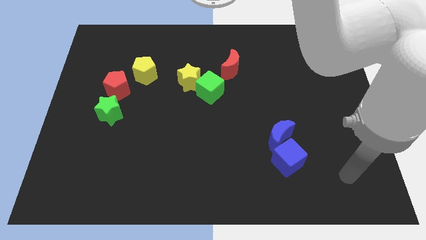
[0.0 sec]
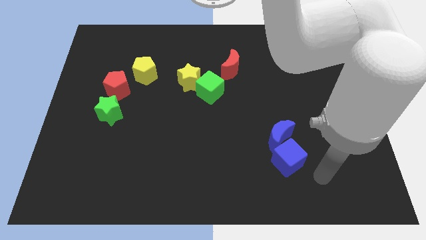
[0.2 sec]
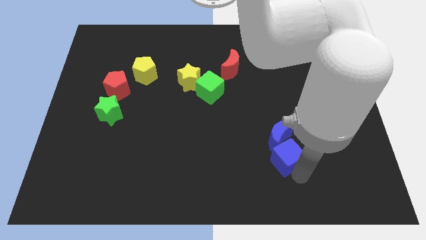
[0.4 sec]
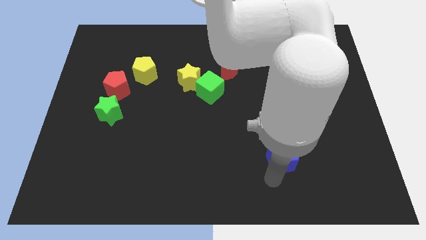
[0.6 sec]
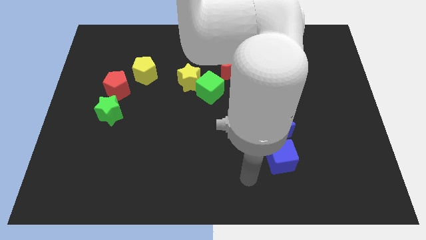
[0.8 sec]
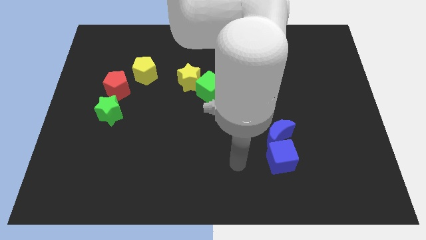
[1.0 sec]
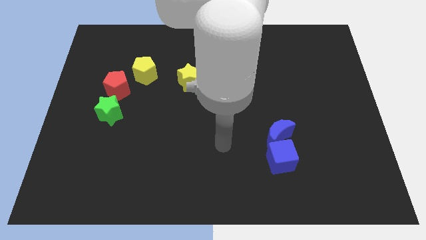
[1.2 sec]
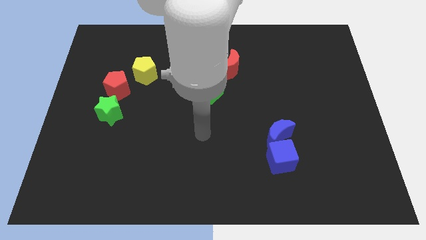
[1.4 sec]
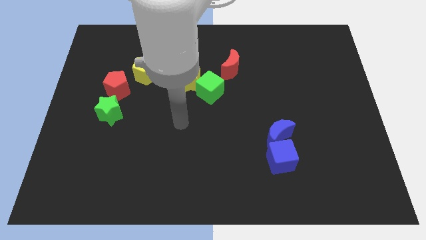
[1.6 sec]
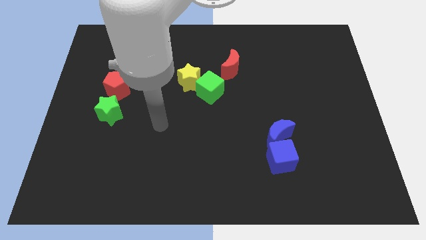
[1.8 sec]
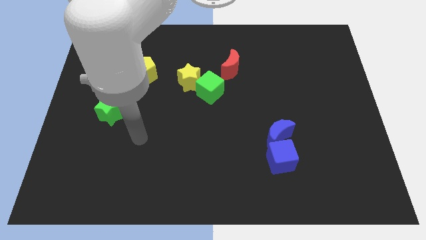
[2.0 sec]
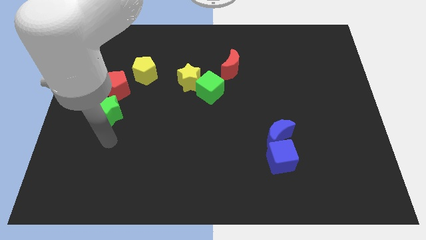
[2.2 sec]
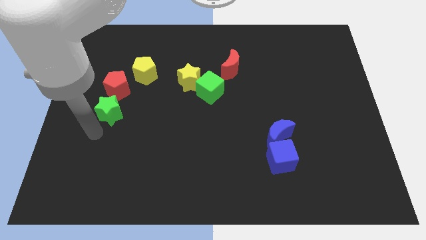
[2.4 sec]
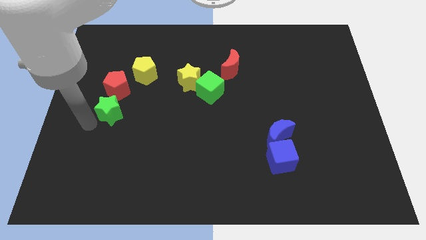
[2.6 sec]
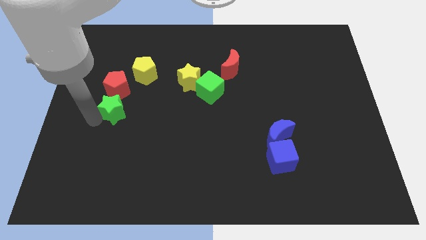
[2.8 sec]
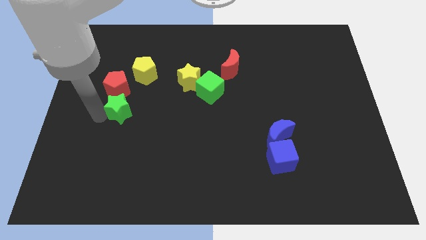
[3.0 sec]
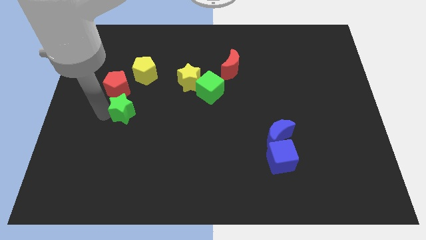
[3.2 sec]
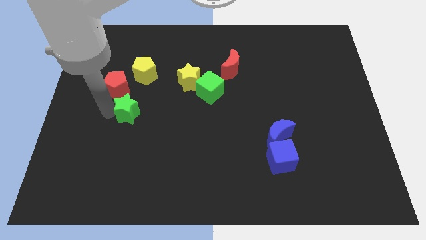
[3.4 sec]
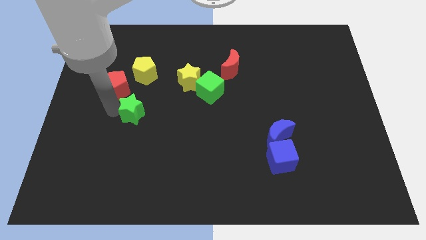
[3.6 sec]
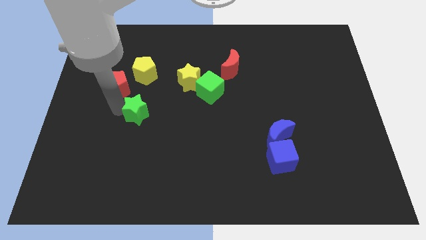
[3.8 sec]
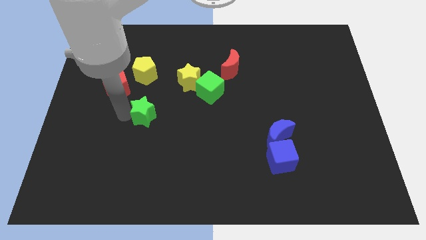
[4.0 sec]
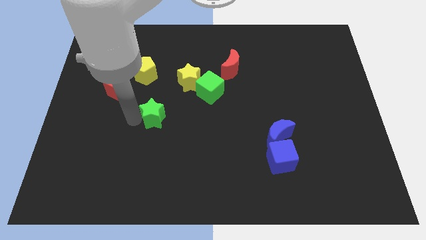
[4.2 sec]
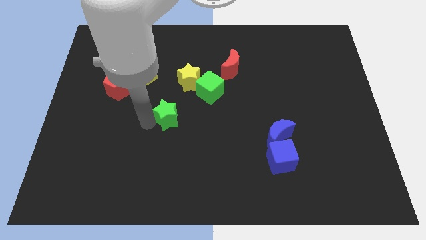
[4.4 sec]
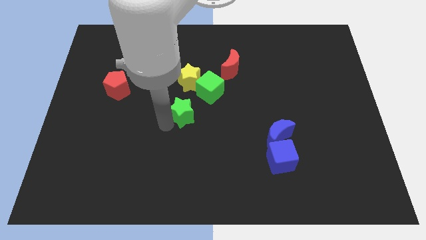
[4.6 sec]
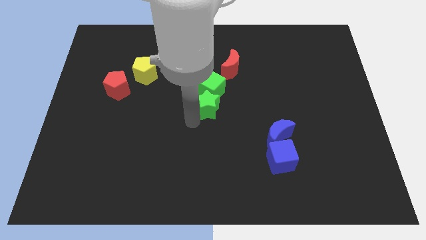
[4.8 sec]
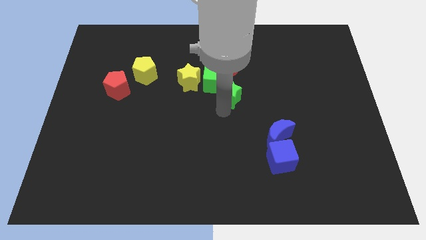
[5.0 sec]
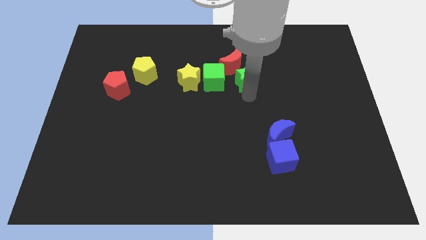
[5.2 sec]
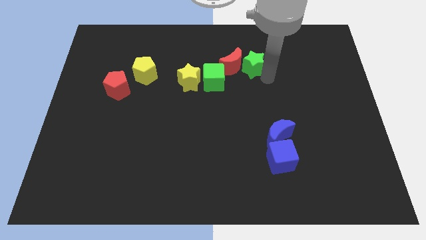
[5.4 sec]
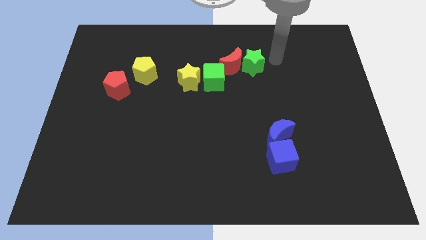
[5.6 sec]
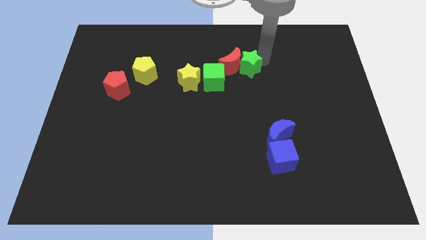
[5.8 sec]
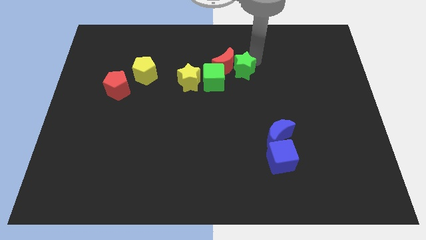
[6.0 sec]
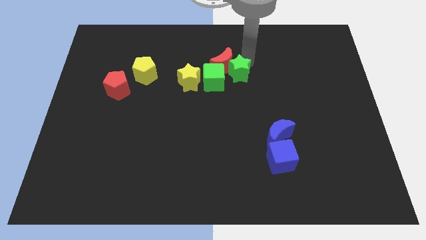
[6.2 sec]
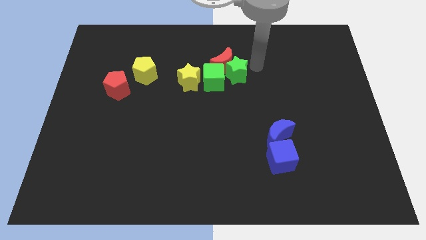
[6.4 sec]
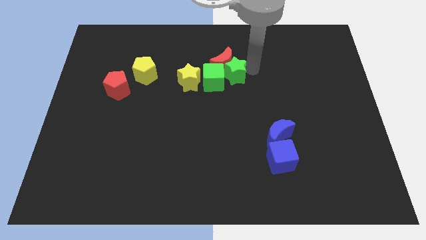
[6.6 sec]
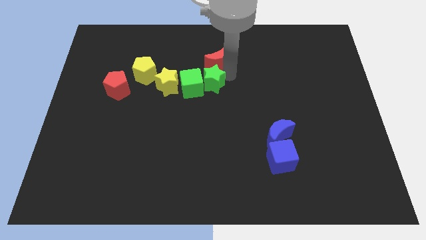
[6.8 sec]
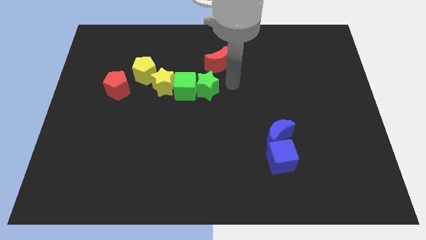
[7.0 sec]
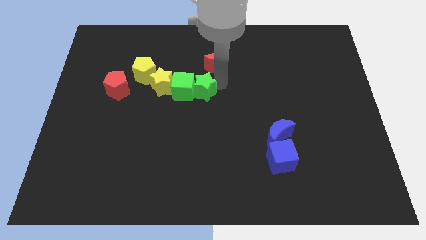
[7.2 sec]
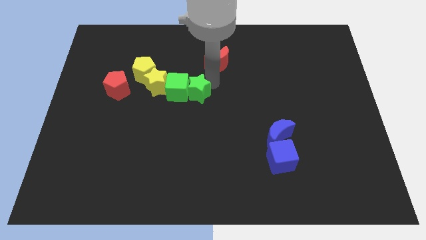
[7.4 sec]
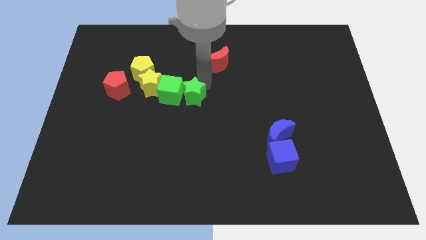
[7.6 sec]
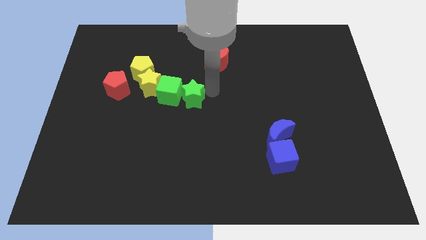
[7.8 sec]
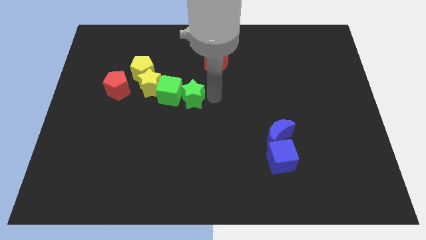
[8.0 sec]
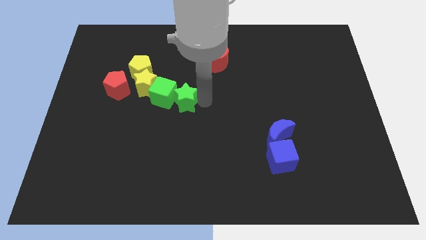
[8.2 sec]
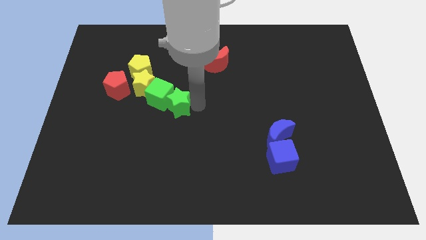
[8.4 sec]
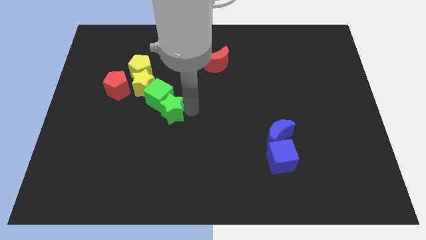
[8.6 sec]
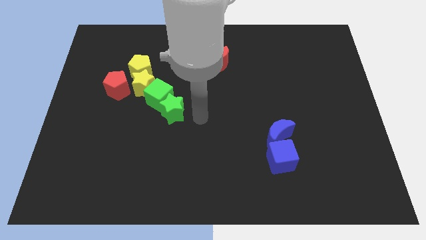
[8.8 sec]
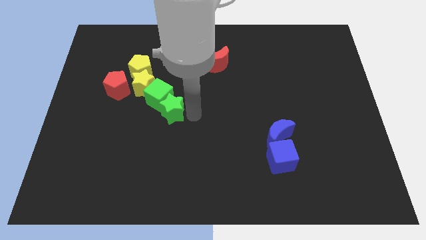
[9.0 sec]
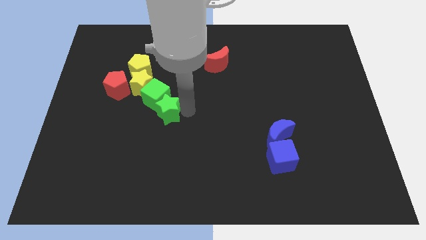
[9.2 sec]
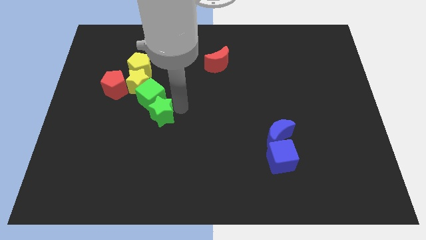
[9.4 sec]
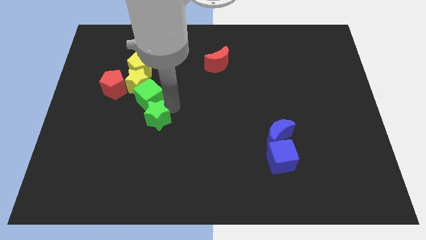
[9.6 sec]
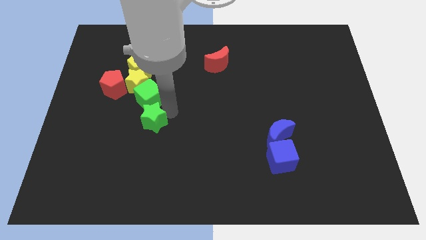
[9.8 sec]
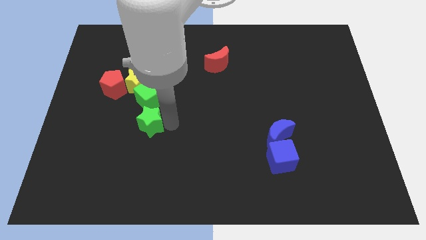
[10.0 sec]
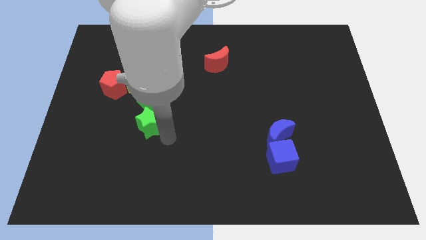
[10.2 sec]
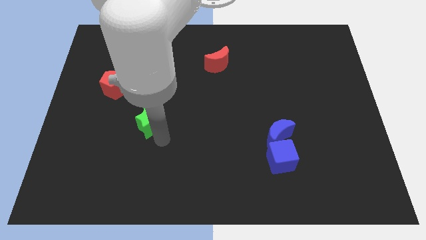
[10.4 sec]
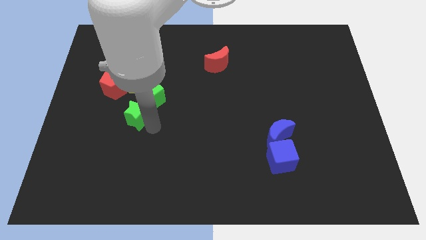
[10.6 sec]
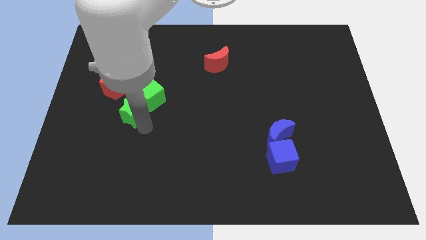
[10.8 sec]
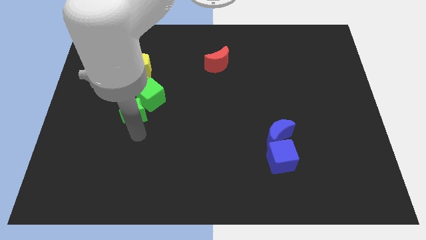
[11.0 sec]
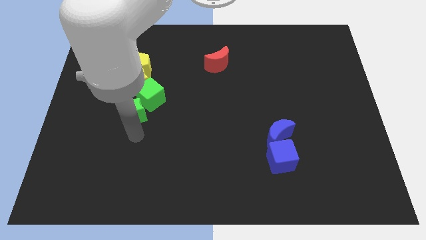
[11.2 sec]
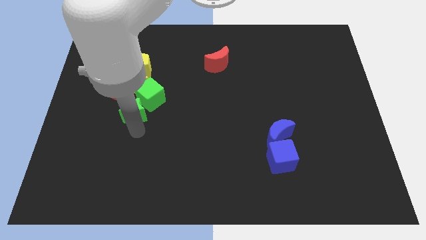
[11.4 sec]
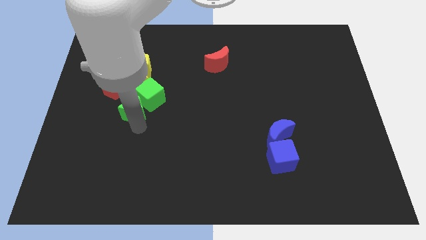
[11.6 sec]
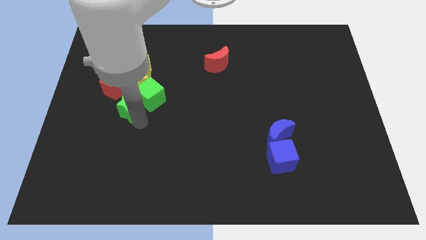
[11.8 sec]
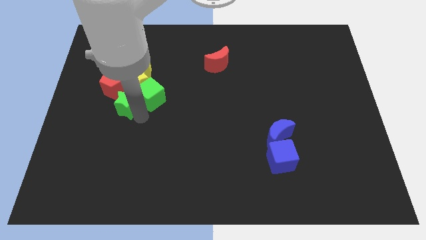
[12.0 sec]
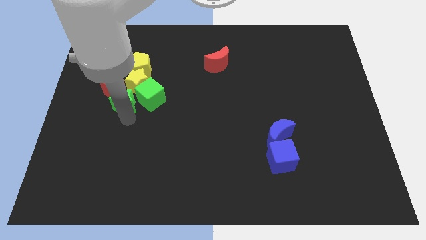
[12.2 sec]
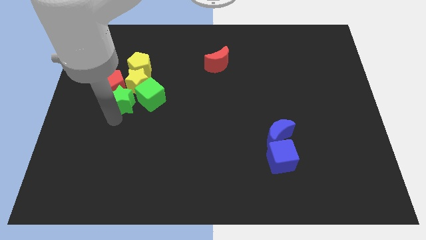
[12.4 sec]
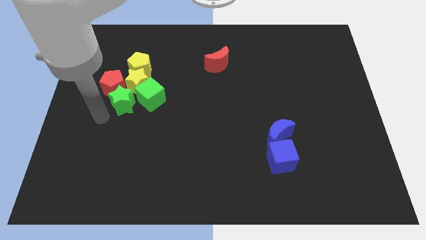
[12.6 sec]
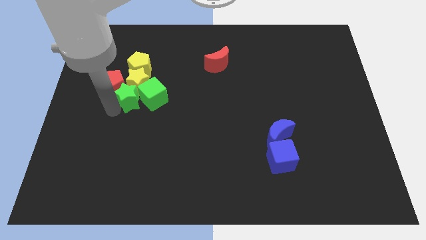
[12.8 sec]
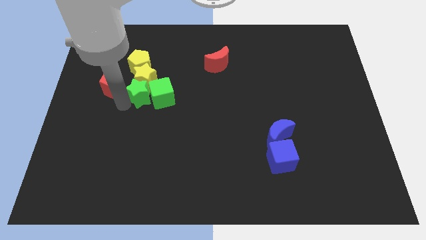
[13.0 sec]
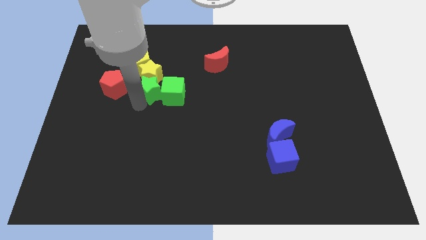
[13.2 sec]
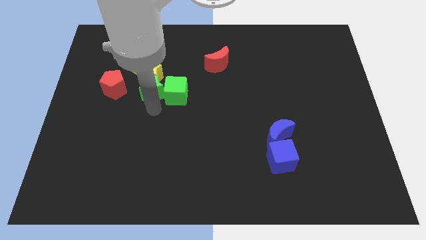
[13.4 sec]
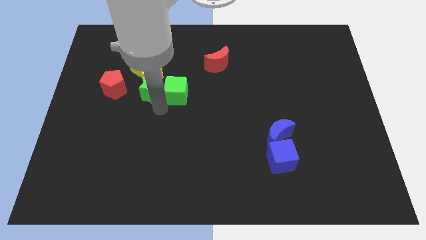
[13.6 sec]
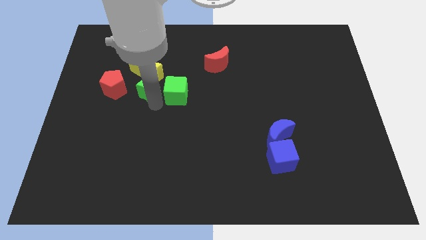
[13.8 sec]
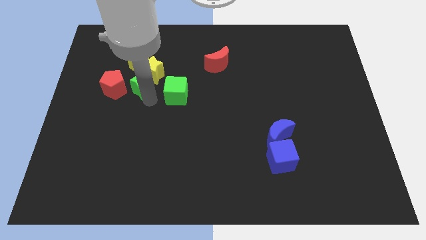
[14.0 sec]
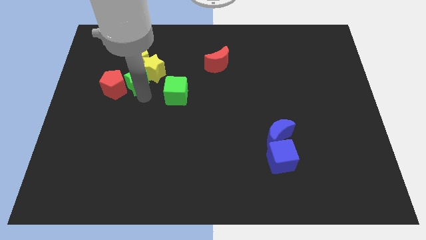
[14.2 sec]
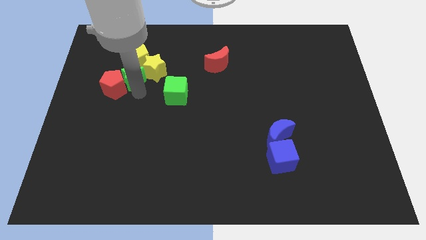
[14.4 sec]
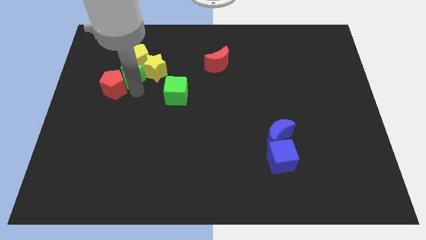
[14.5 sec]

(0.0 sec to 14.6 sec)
slide the green star close to the yellow pentagon
